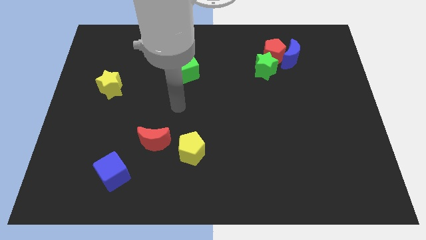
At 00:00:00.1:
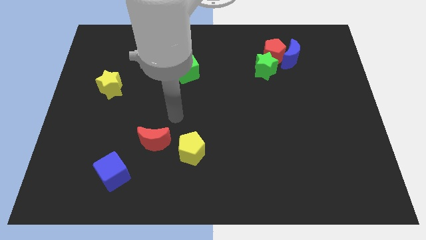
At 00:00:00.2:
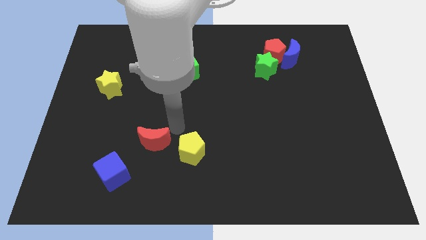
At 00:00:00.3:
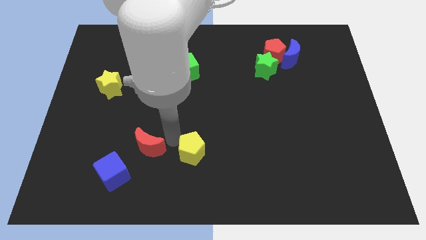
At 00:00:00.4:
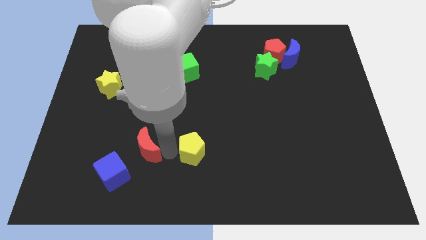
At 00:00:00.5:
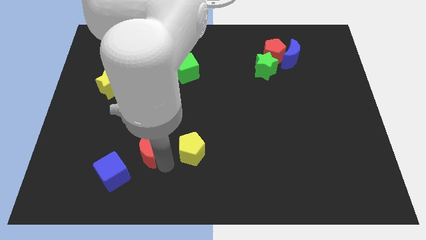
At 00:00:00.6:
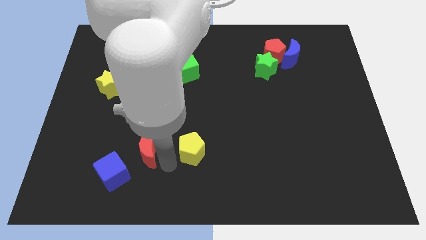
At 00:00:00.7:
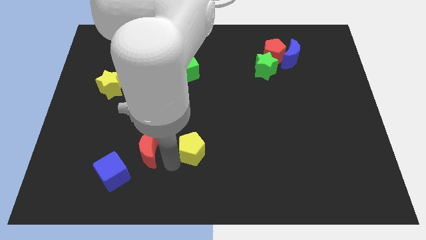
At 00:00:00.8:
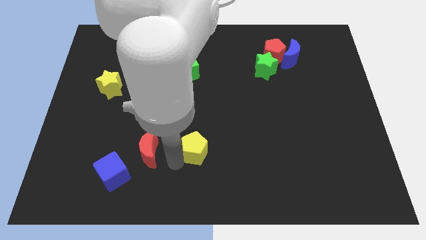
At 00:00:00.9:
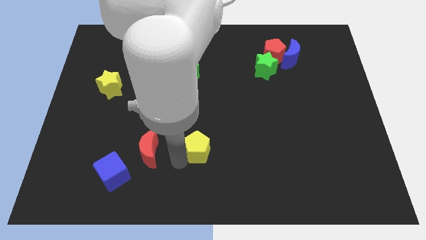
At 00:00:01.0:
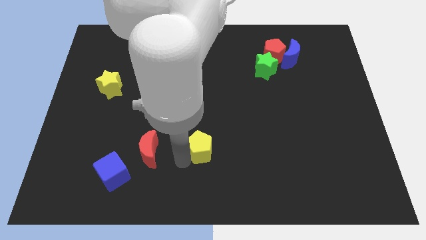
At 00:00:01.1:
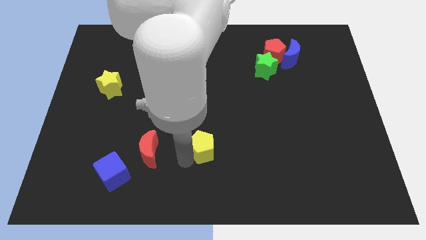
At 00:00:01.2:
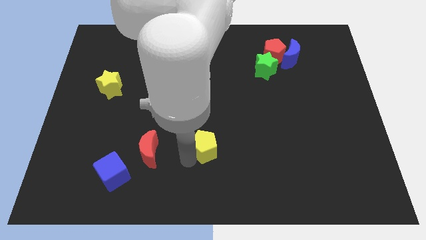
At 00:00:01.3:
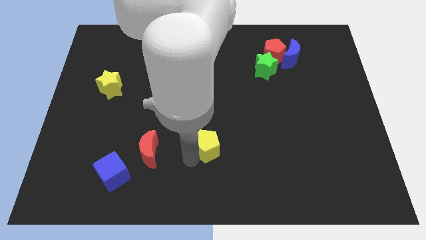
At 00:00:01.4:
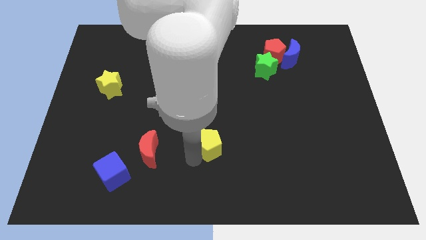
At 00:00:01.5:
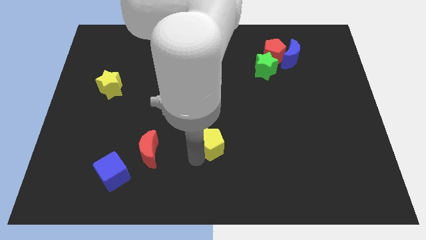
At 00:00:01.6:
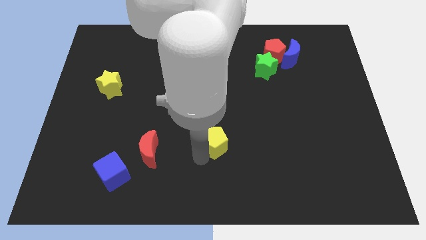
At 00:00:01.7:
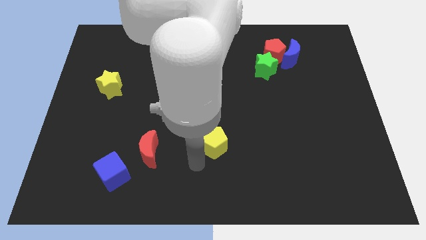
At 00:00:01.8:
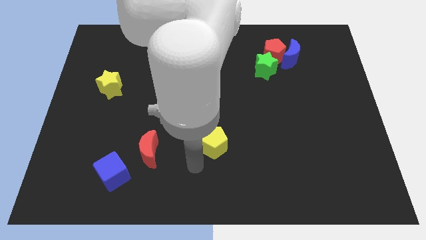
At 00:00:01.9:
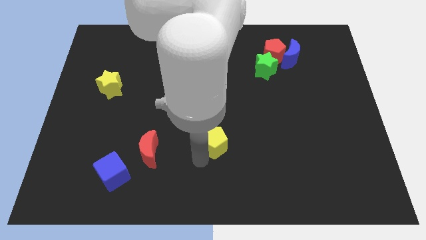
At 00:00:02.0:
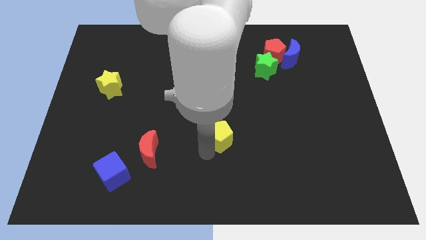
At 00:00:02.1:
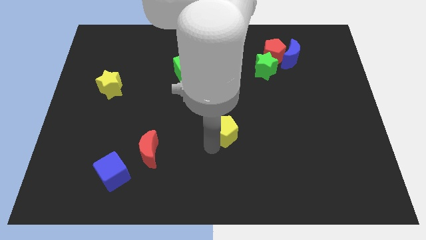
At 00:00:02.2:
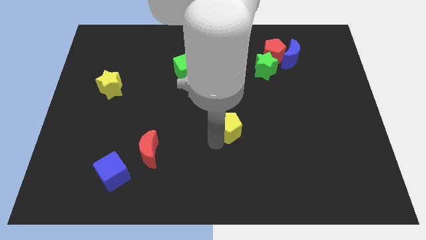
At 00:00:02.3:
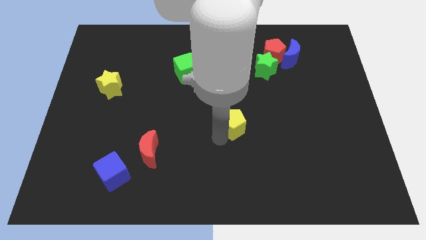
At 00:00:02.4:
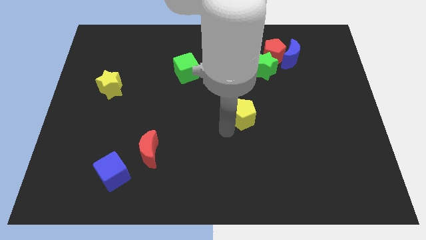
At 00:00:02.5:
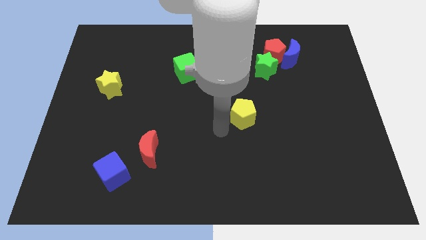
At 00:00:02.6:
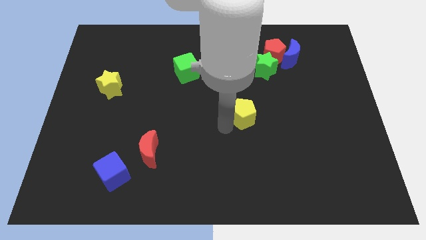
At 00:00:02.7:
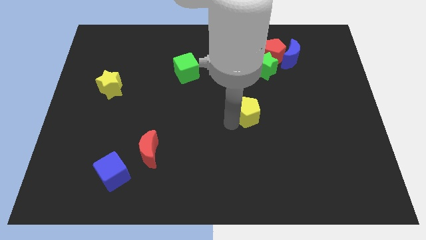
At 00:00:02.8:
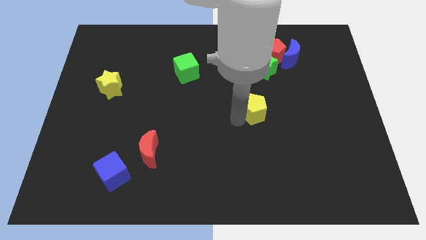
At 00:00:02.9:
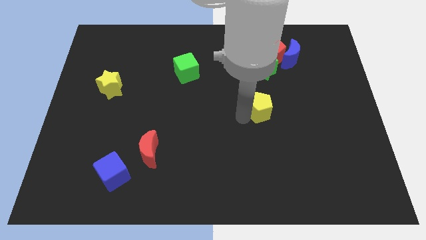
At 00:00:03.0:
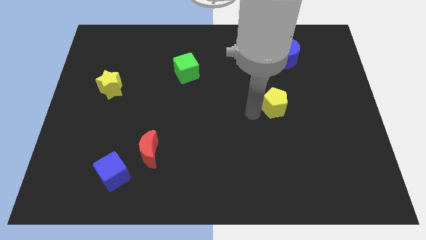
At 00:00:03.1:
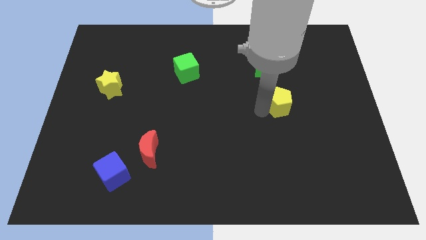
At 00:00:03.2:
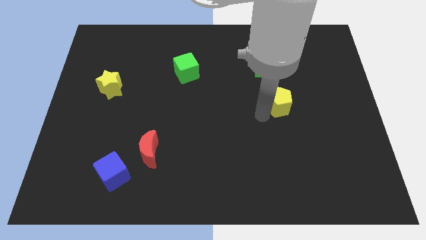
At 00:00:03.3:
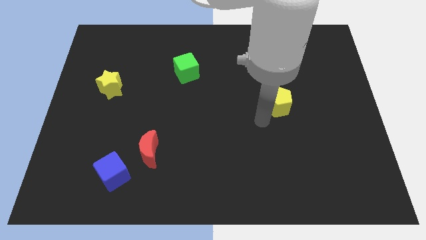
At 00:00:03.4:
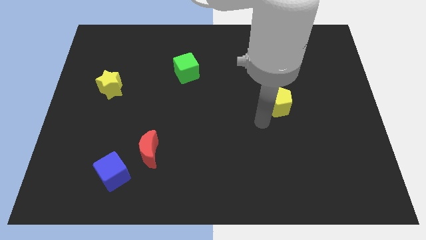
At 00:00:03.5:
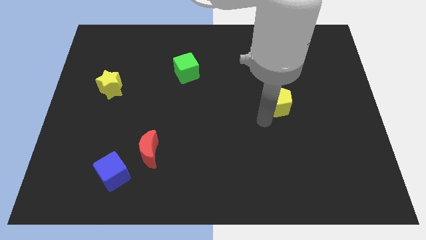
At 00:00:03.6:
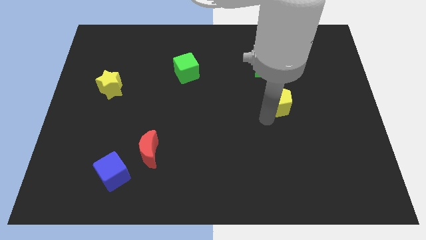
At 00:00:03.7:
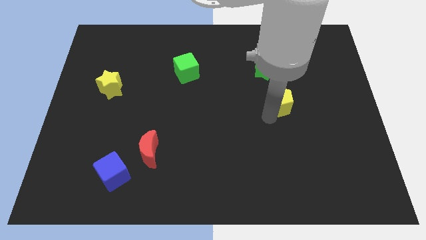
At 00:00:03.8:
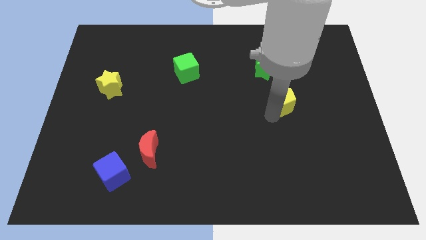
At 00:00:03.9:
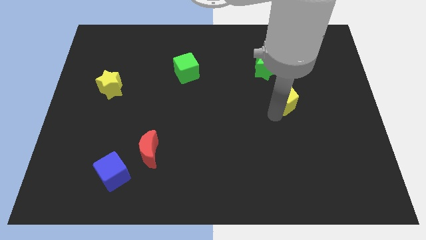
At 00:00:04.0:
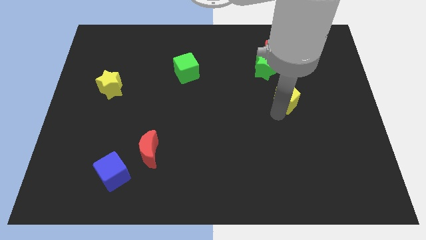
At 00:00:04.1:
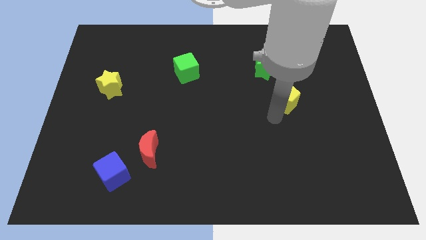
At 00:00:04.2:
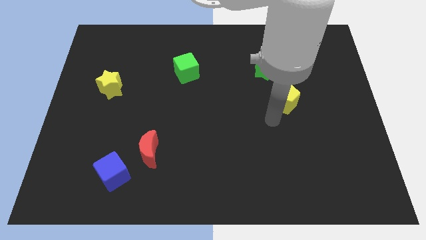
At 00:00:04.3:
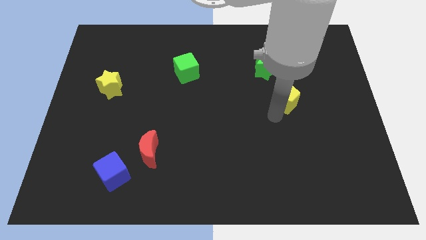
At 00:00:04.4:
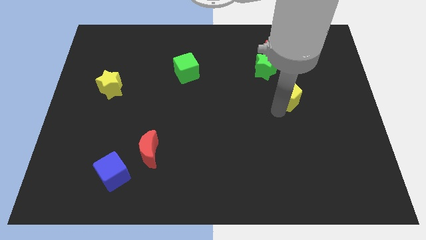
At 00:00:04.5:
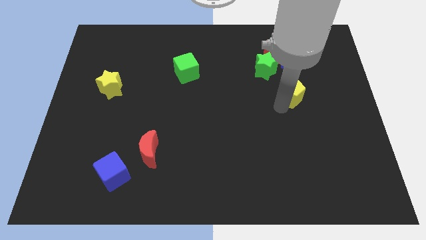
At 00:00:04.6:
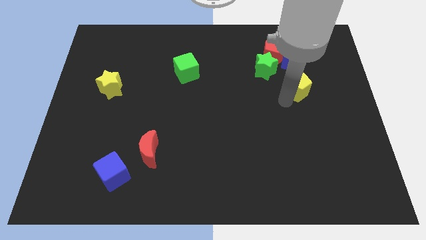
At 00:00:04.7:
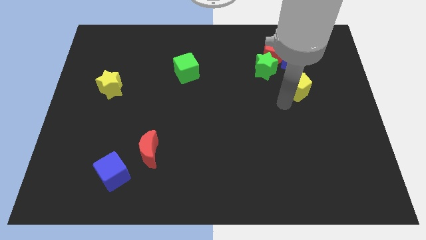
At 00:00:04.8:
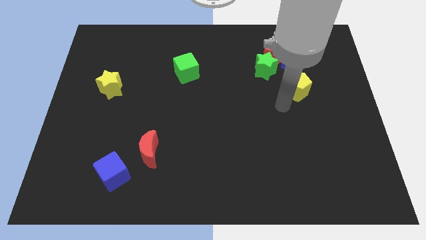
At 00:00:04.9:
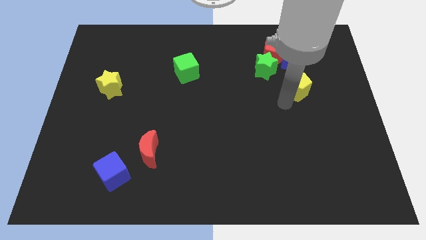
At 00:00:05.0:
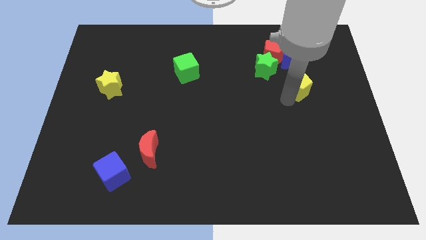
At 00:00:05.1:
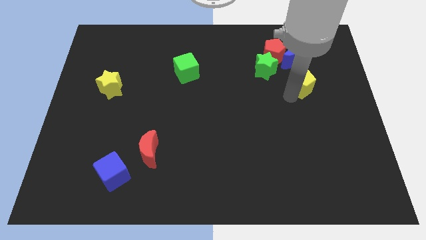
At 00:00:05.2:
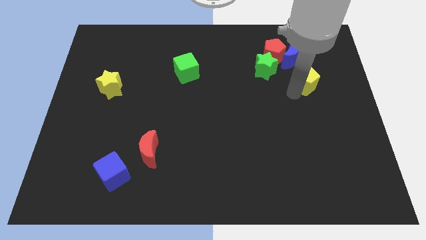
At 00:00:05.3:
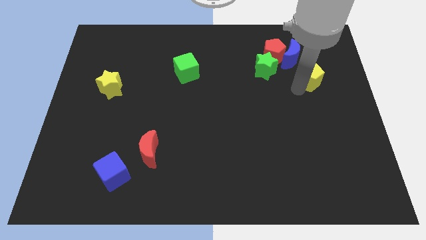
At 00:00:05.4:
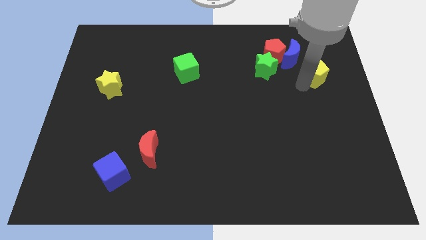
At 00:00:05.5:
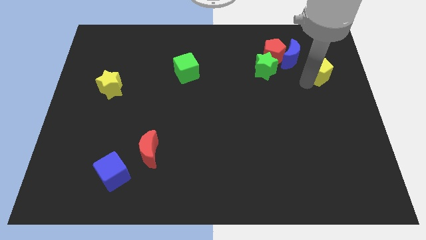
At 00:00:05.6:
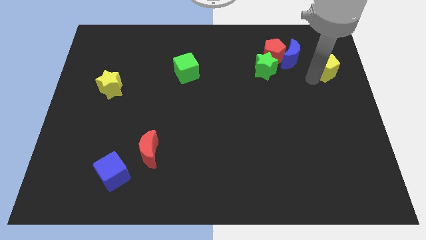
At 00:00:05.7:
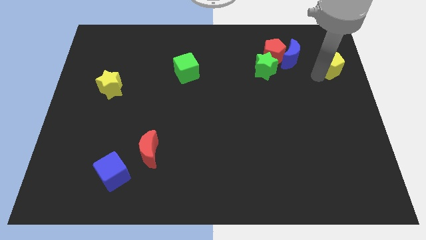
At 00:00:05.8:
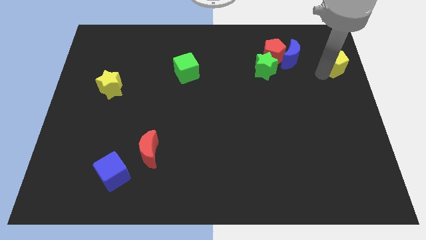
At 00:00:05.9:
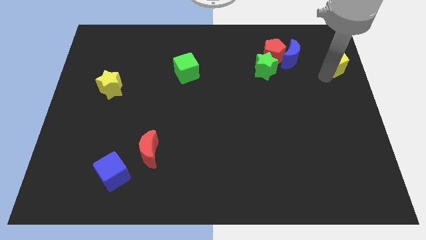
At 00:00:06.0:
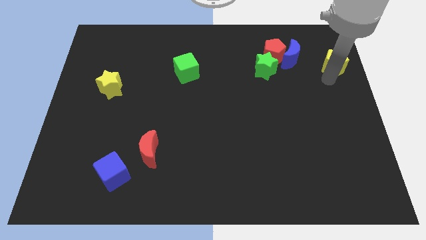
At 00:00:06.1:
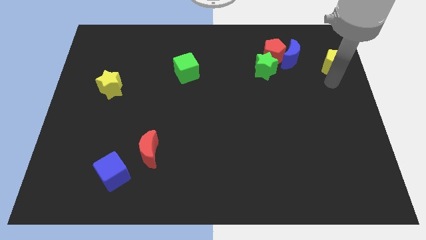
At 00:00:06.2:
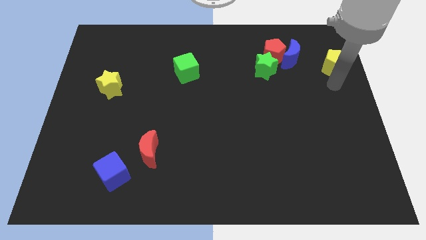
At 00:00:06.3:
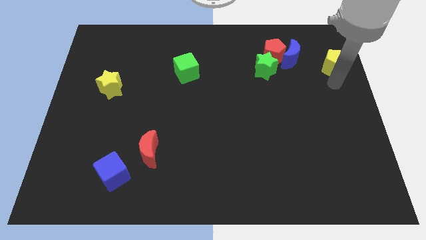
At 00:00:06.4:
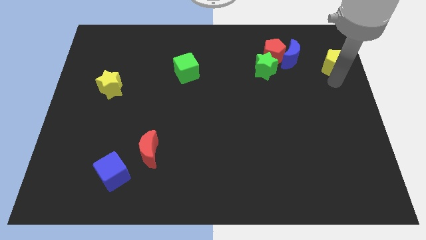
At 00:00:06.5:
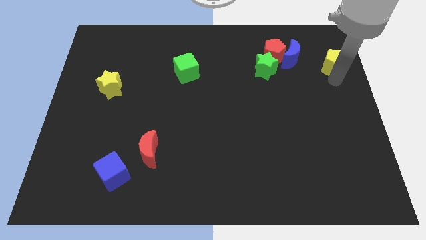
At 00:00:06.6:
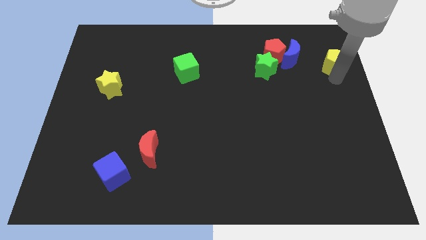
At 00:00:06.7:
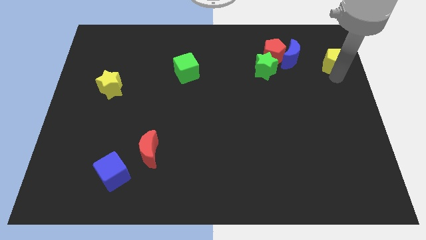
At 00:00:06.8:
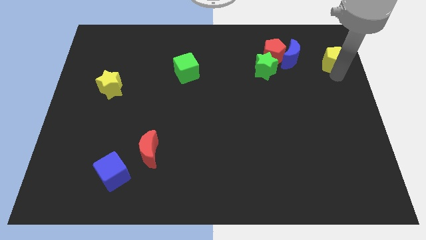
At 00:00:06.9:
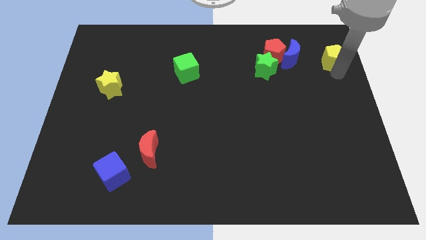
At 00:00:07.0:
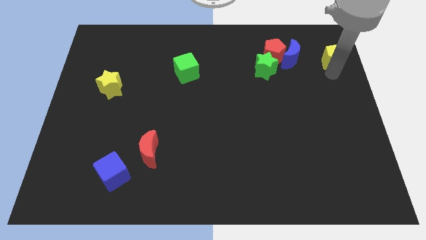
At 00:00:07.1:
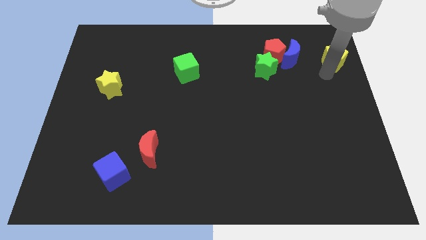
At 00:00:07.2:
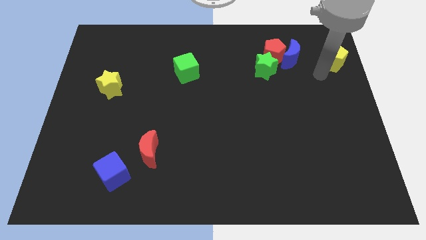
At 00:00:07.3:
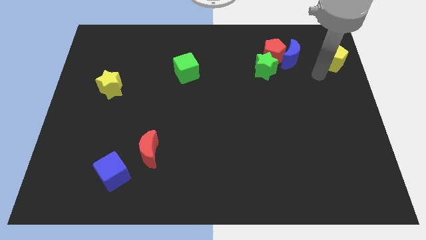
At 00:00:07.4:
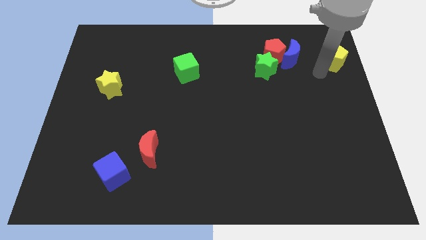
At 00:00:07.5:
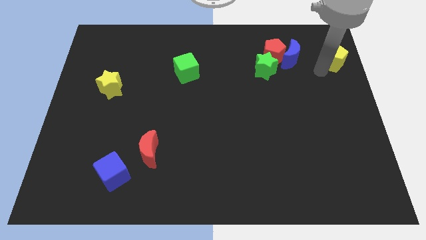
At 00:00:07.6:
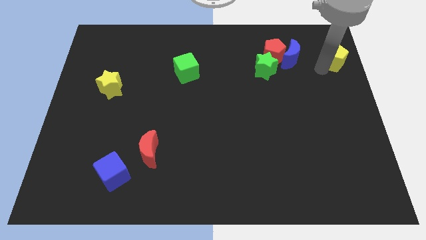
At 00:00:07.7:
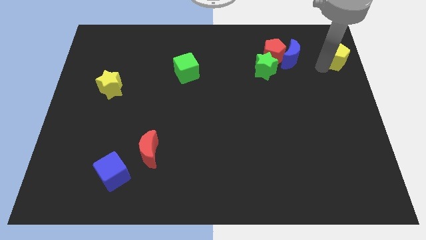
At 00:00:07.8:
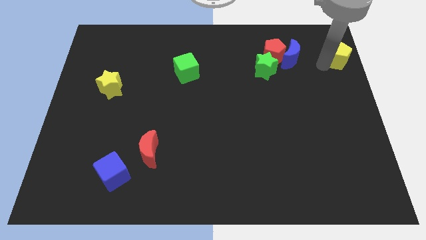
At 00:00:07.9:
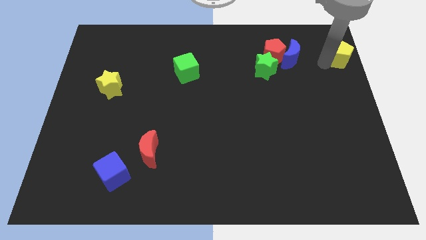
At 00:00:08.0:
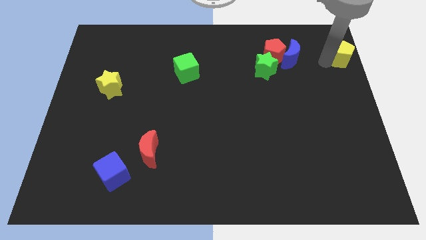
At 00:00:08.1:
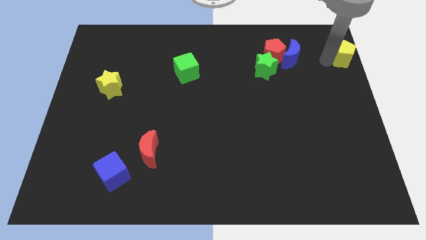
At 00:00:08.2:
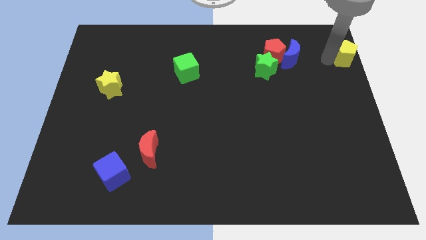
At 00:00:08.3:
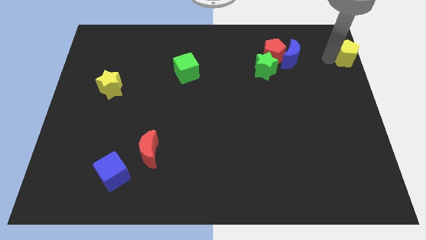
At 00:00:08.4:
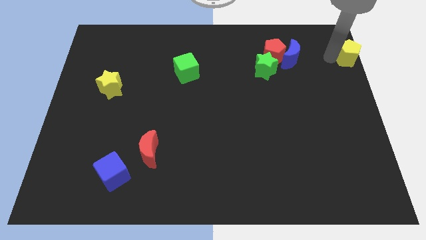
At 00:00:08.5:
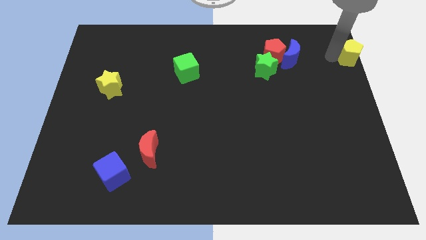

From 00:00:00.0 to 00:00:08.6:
move the yellow pentagon to the top right of the board
